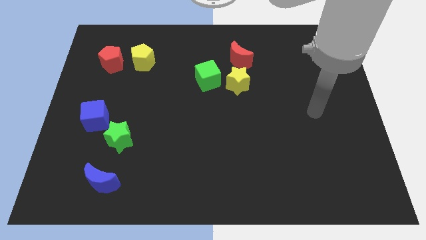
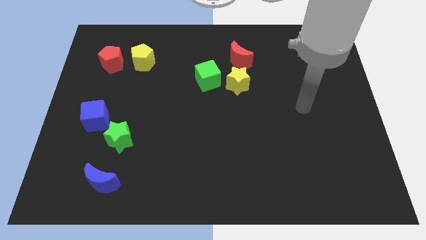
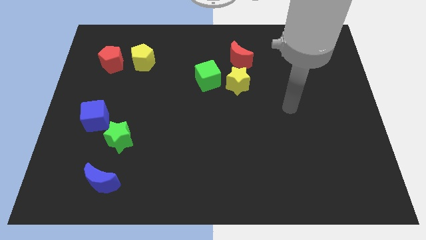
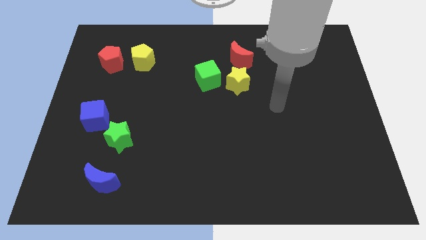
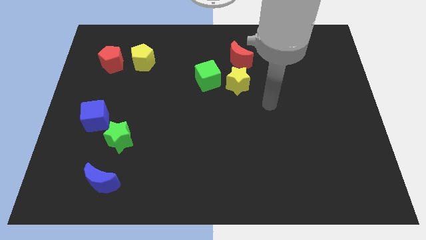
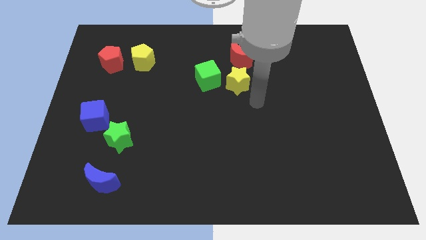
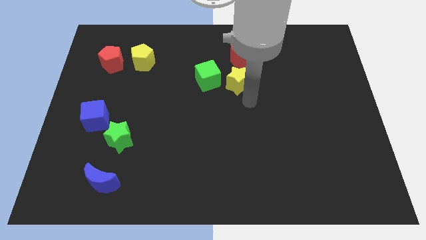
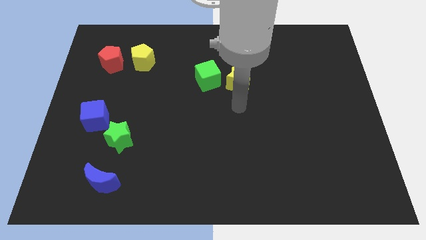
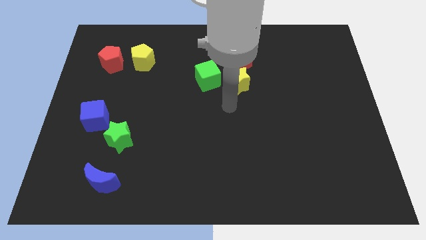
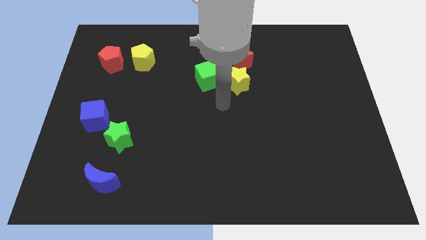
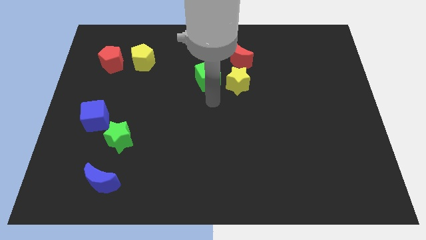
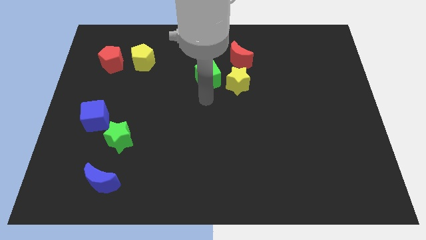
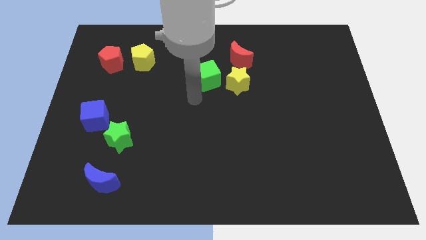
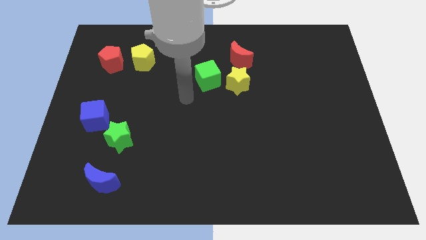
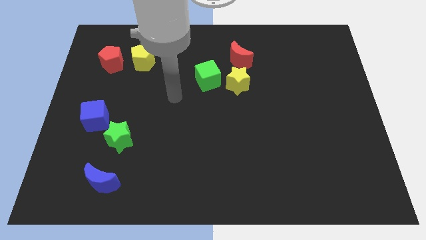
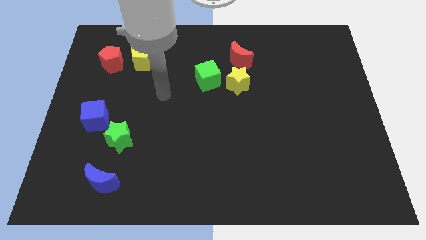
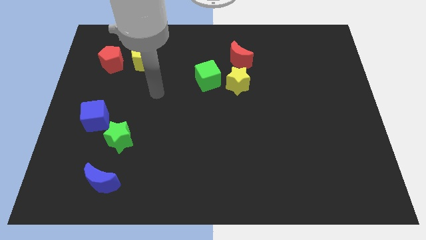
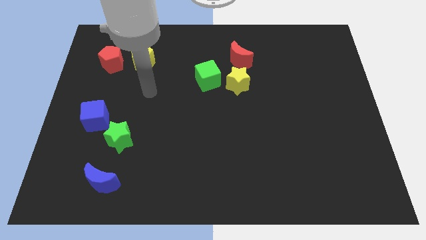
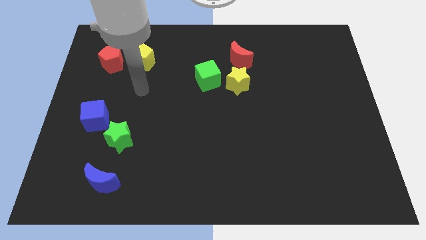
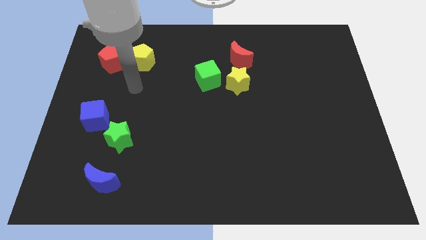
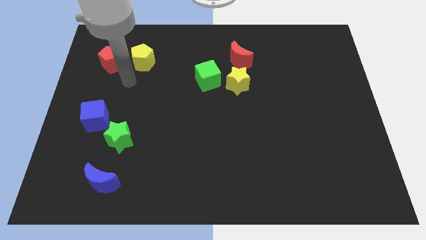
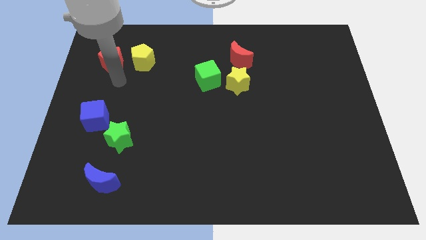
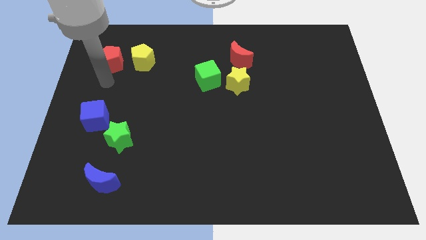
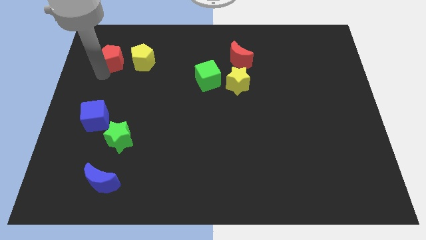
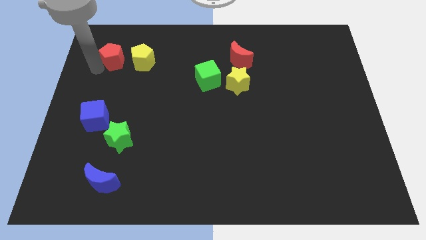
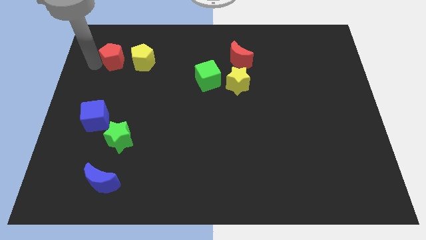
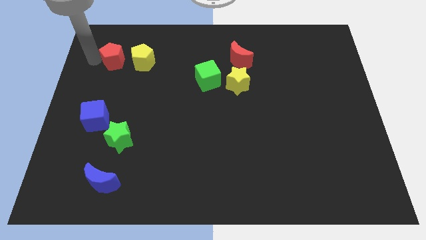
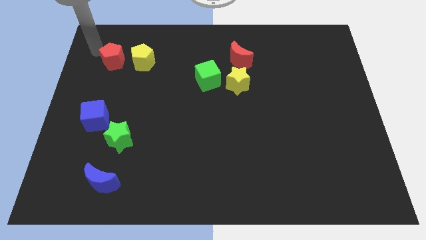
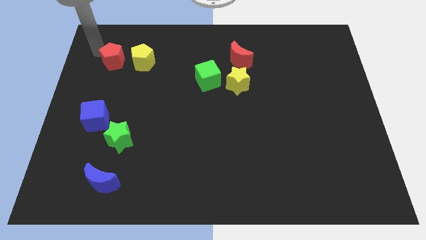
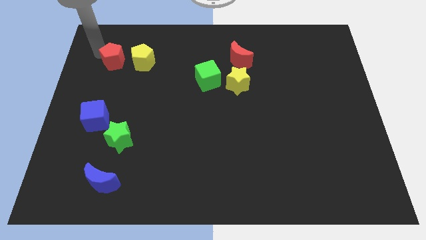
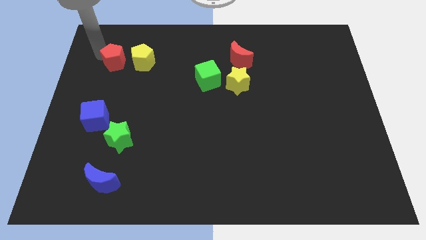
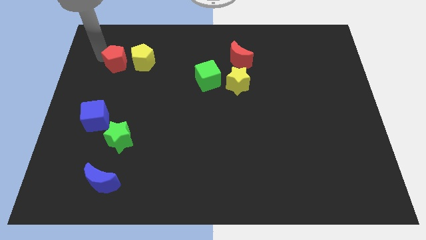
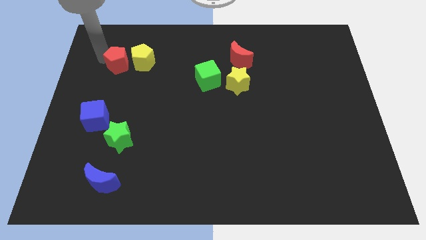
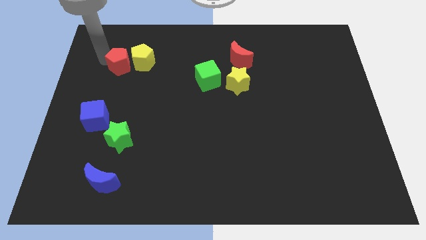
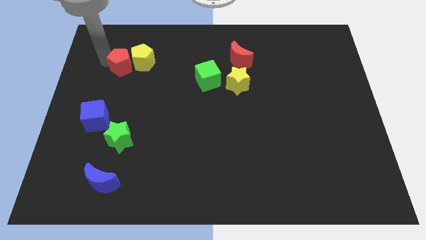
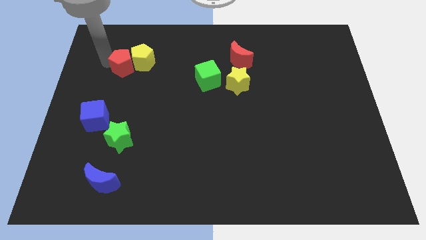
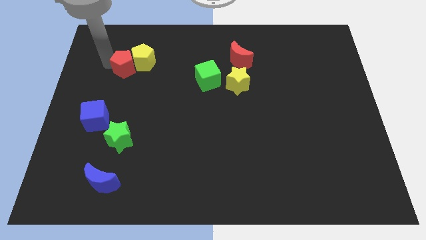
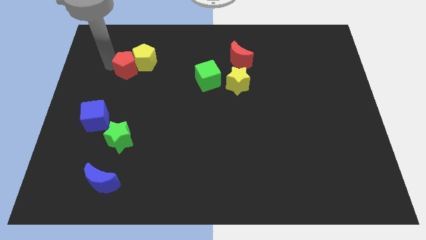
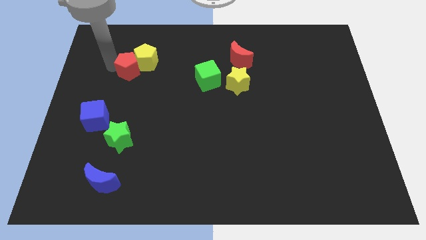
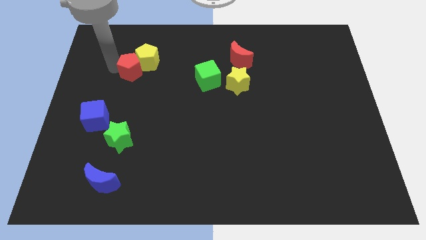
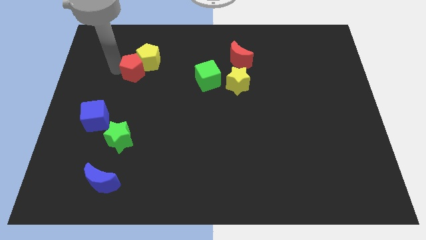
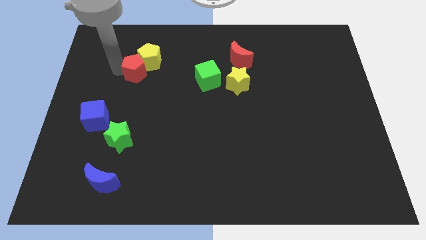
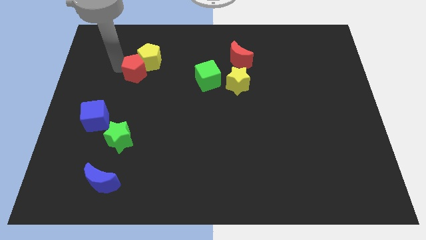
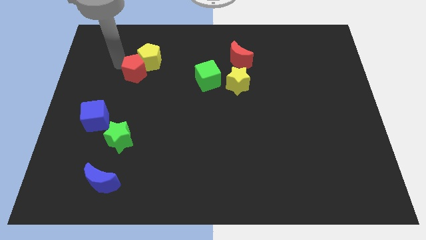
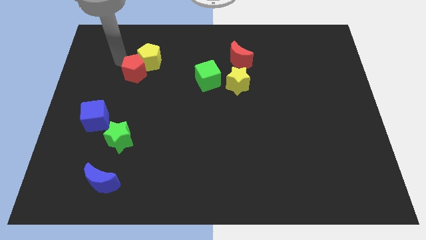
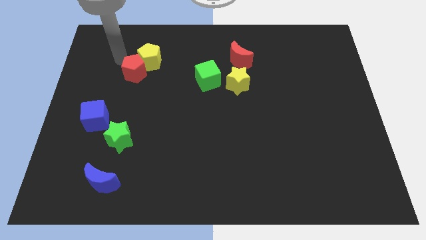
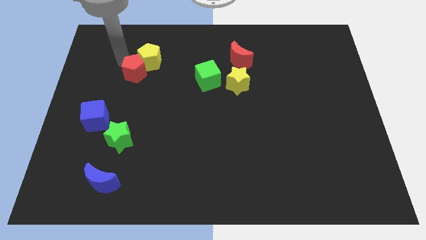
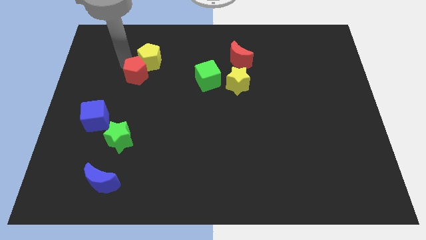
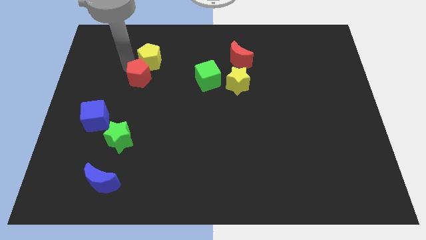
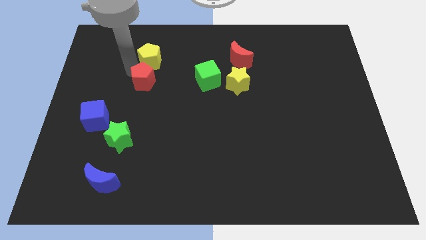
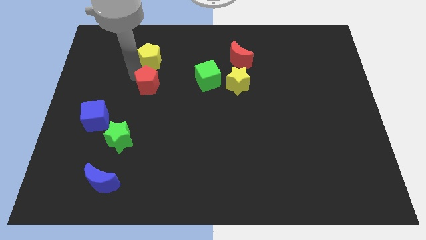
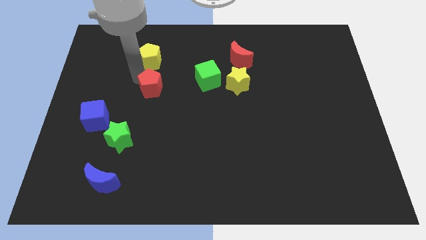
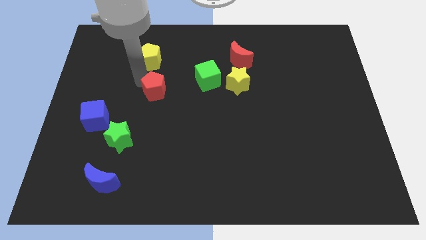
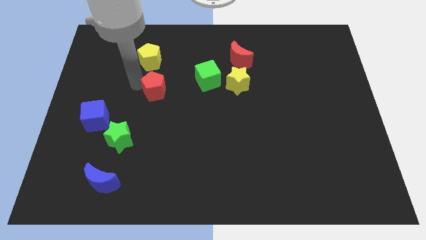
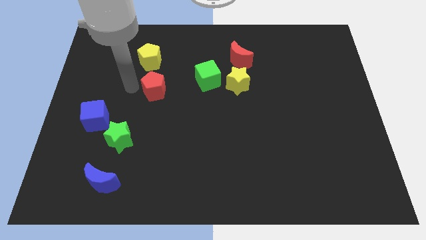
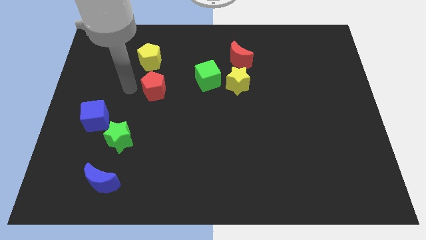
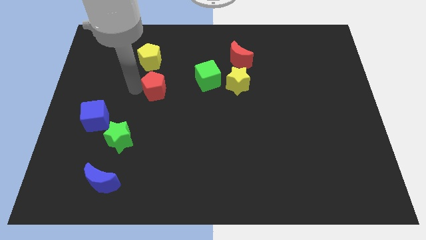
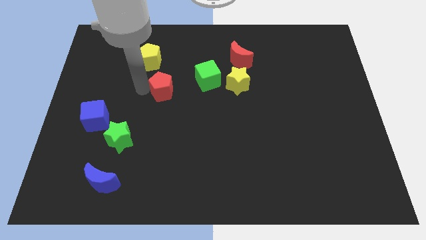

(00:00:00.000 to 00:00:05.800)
push the red pentagon to the middle of the board

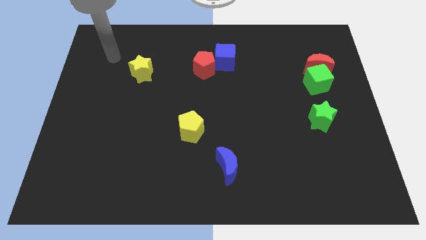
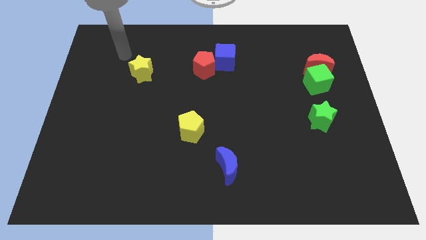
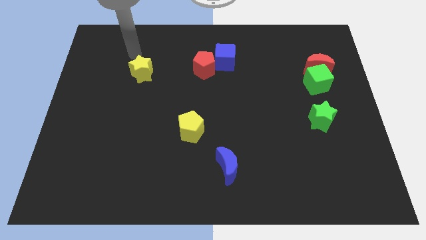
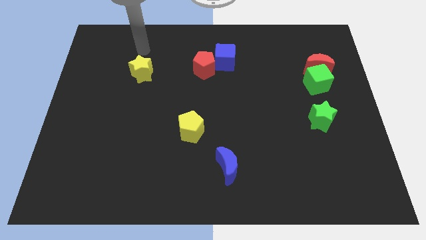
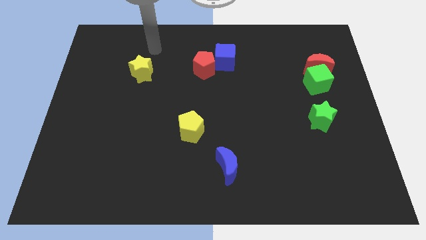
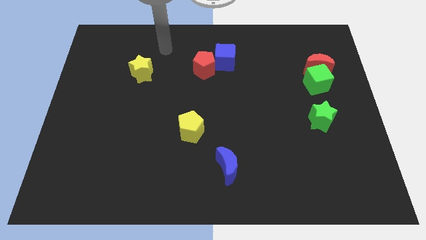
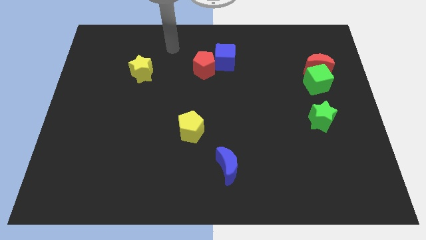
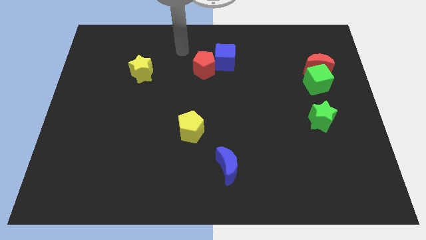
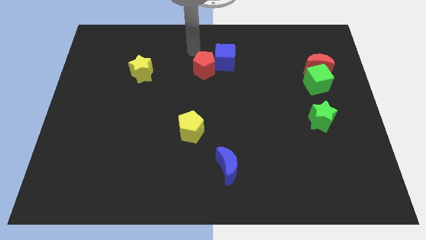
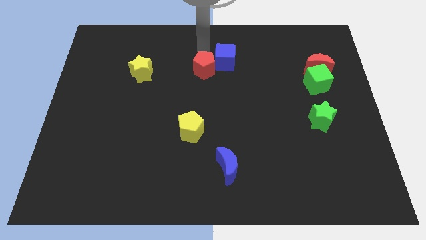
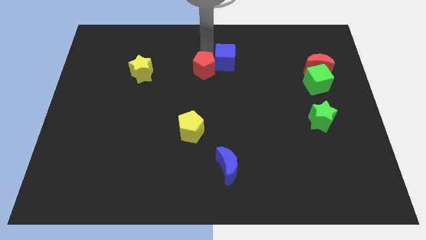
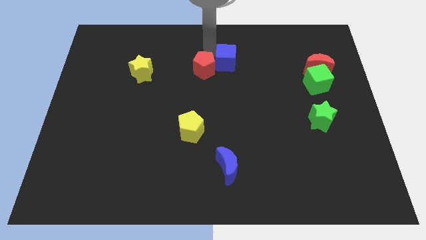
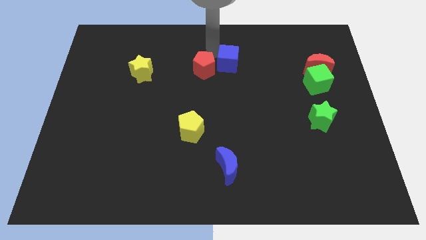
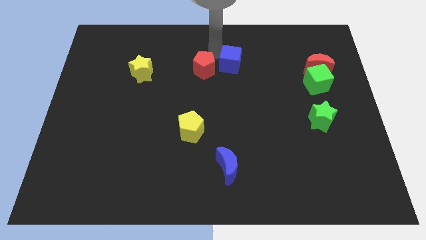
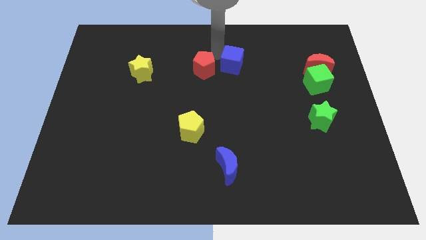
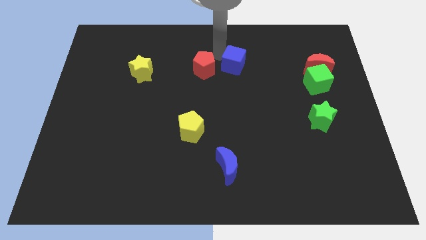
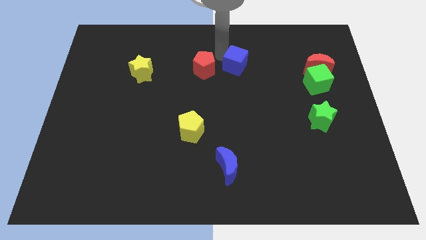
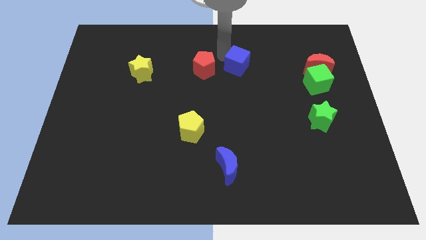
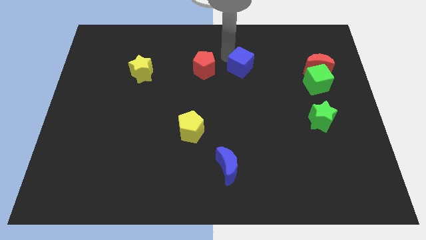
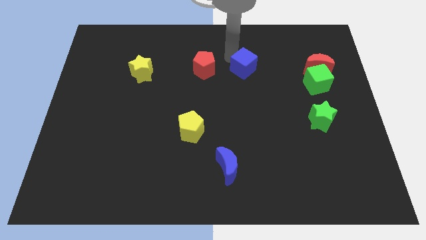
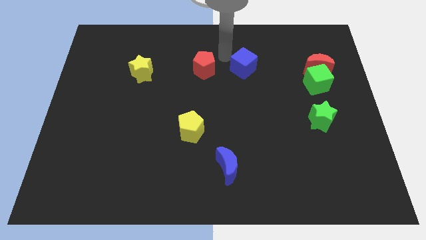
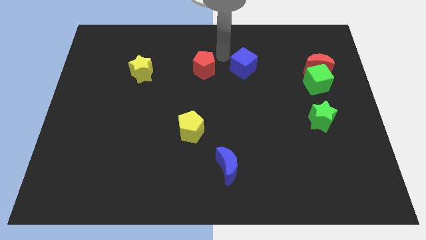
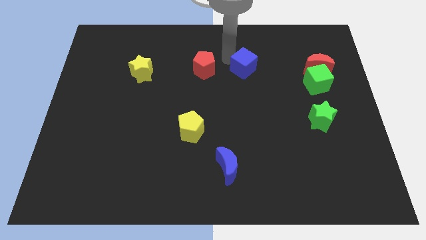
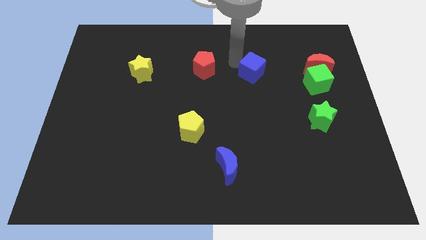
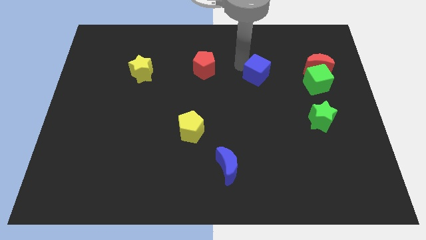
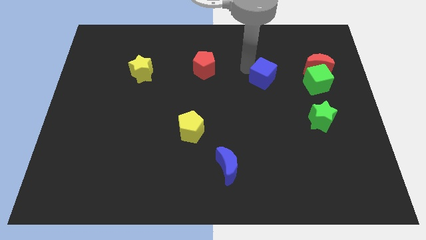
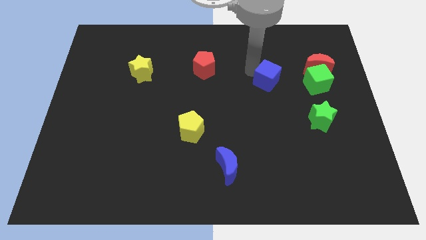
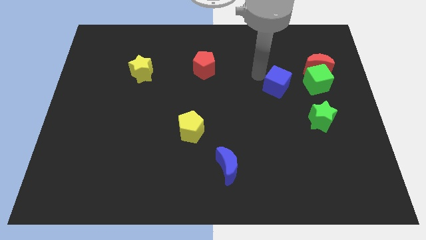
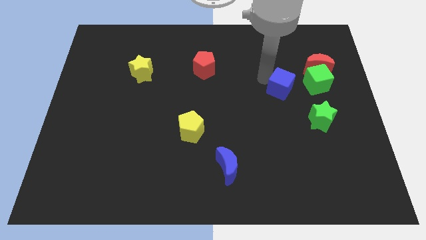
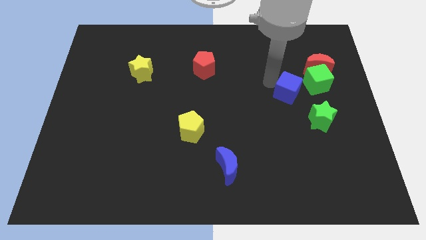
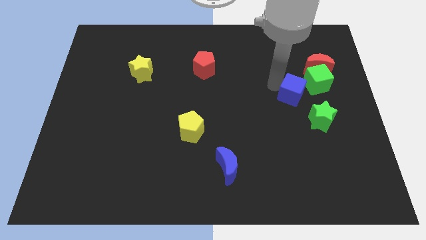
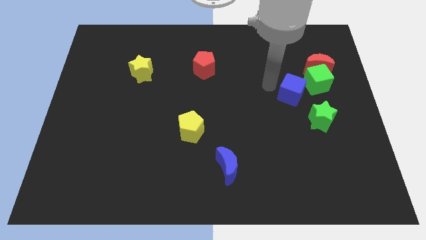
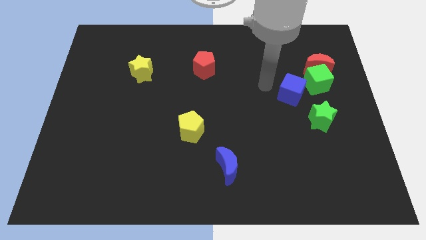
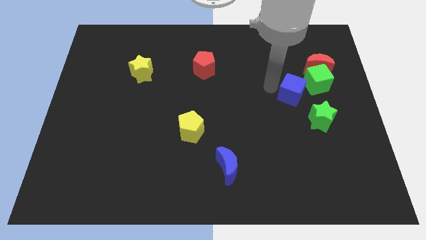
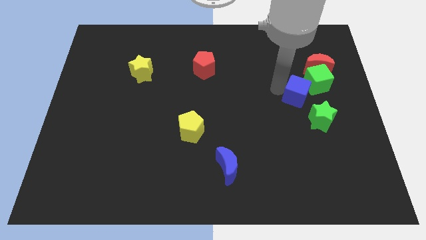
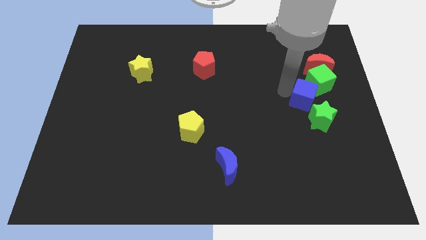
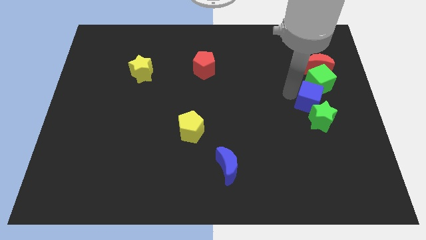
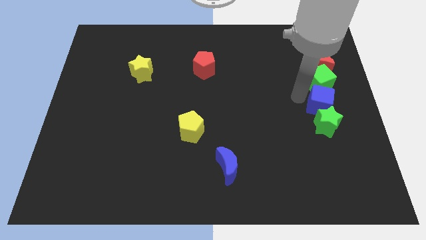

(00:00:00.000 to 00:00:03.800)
push the blue cube to the right side of the board
